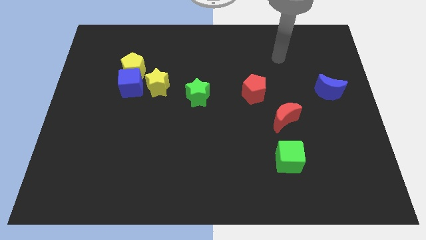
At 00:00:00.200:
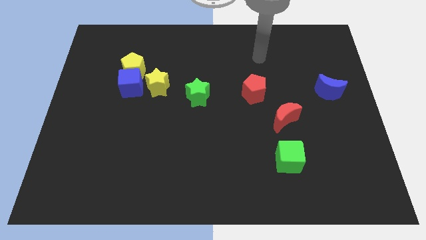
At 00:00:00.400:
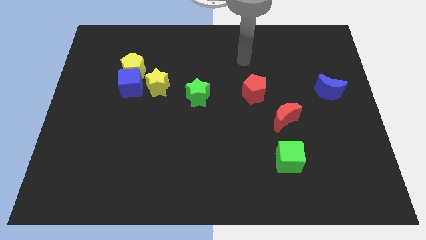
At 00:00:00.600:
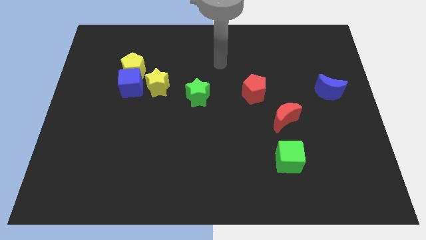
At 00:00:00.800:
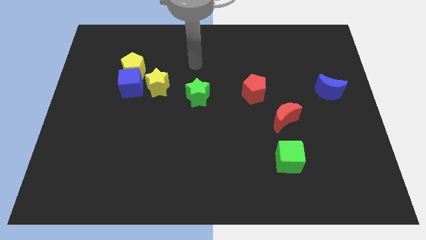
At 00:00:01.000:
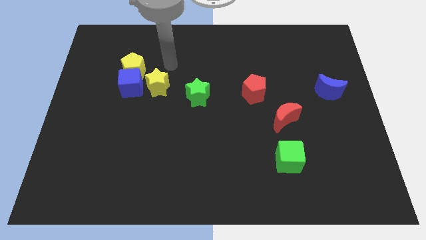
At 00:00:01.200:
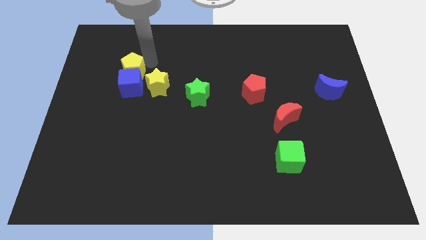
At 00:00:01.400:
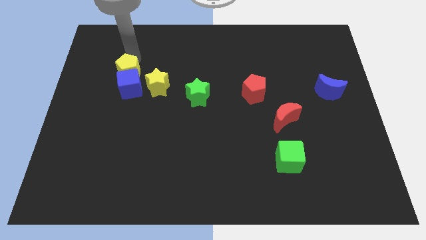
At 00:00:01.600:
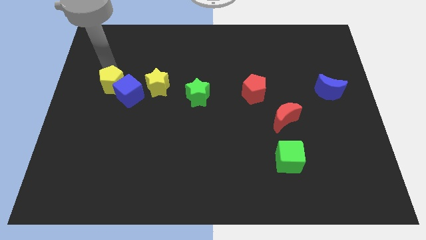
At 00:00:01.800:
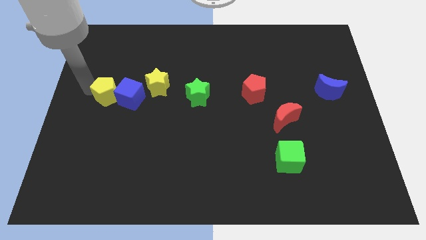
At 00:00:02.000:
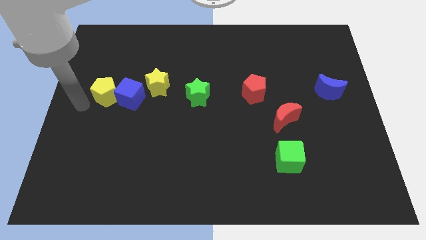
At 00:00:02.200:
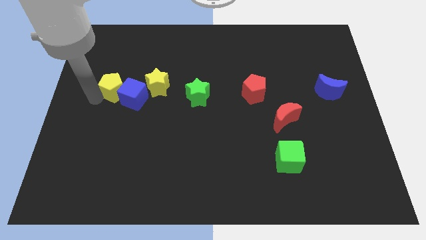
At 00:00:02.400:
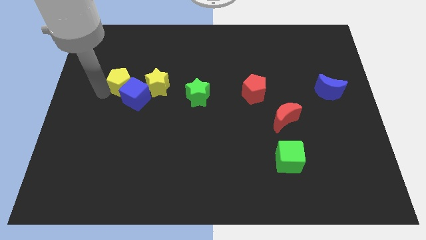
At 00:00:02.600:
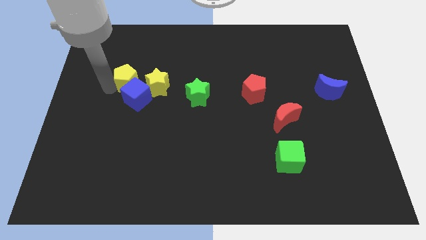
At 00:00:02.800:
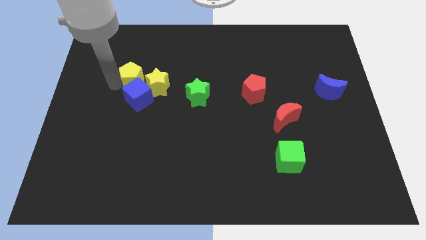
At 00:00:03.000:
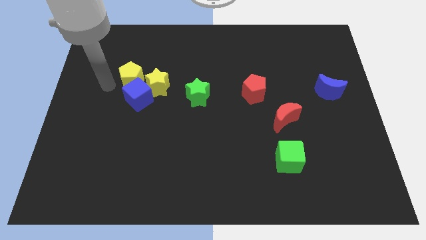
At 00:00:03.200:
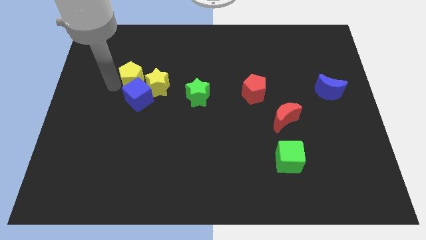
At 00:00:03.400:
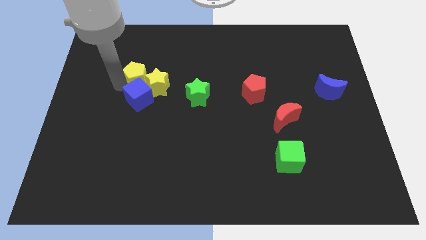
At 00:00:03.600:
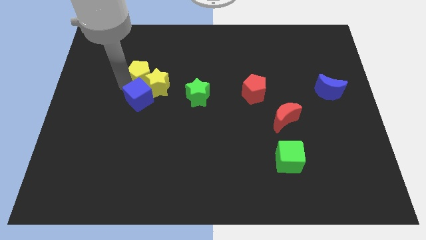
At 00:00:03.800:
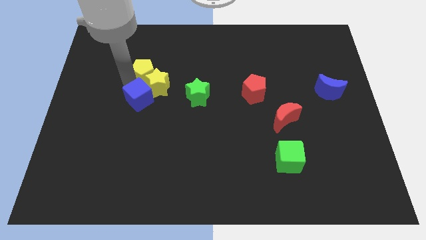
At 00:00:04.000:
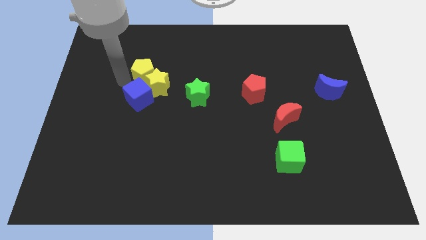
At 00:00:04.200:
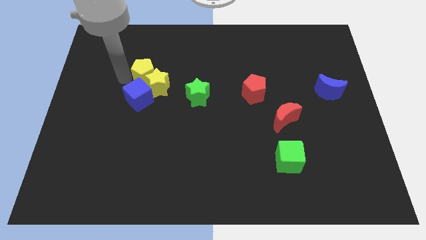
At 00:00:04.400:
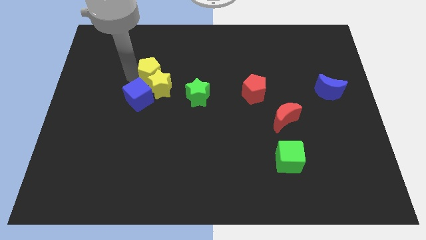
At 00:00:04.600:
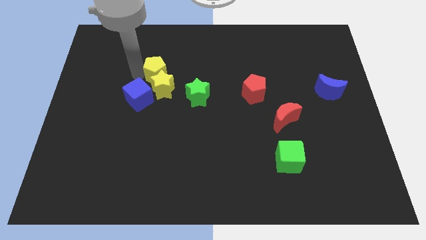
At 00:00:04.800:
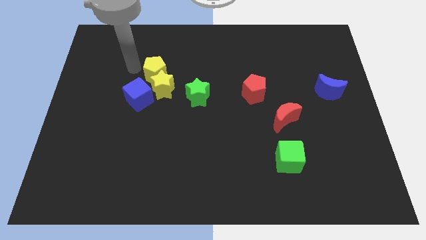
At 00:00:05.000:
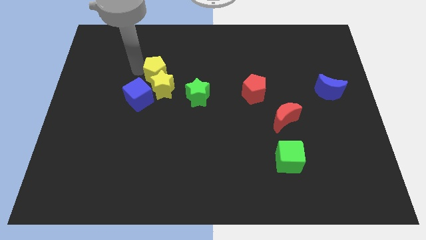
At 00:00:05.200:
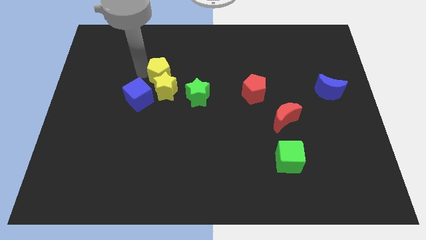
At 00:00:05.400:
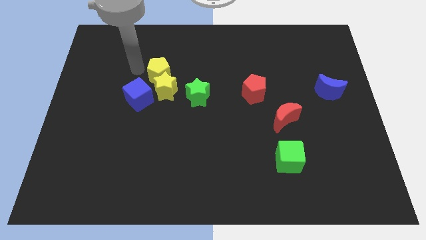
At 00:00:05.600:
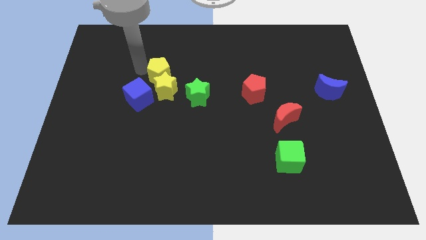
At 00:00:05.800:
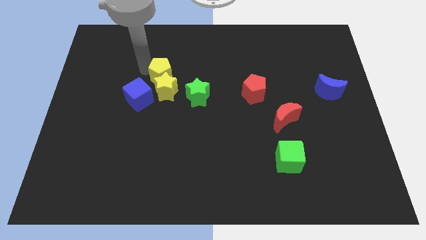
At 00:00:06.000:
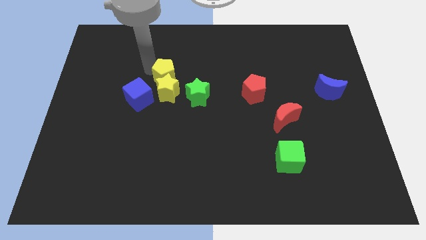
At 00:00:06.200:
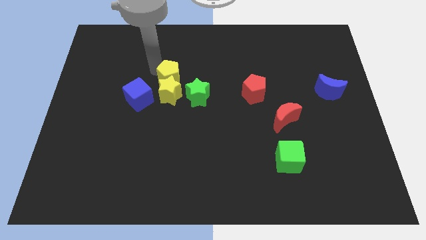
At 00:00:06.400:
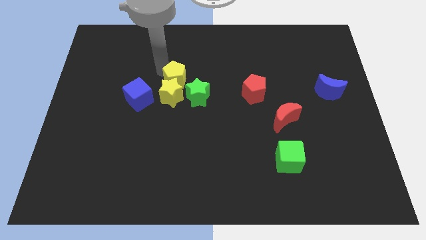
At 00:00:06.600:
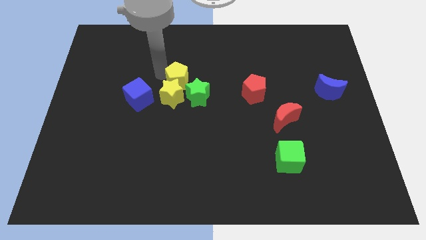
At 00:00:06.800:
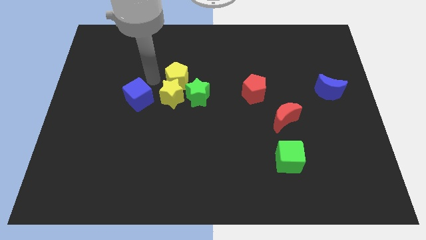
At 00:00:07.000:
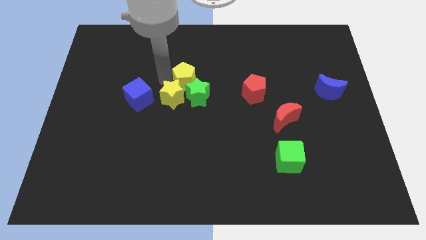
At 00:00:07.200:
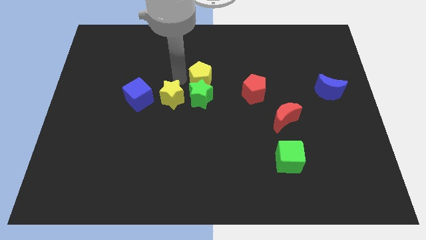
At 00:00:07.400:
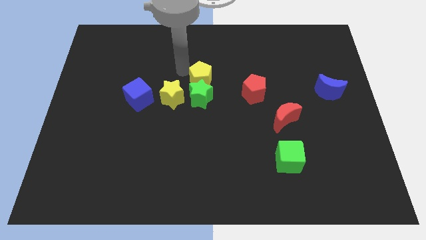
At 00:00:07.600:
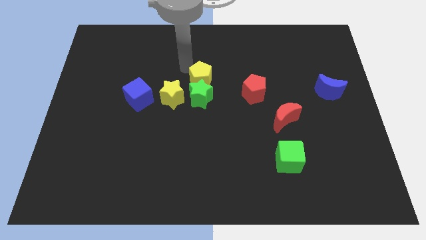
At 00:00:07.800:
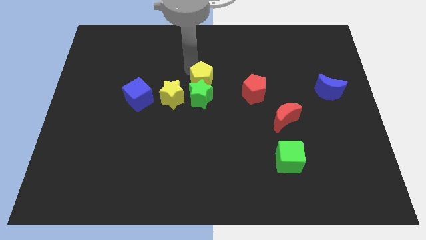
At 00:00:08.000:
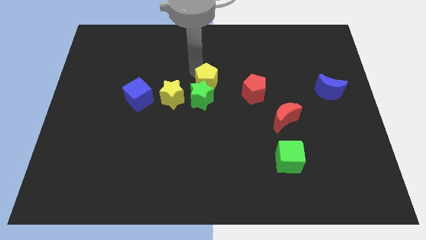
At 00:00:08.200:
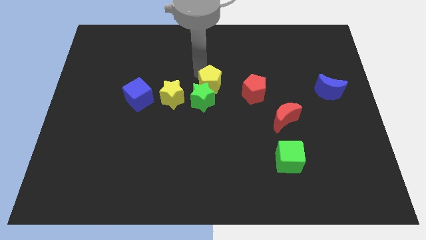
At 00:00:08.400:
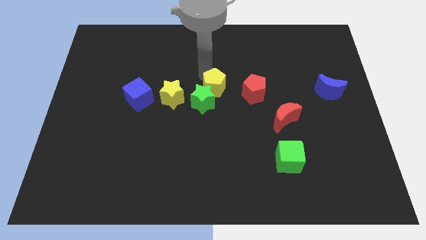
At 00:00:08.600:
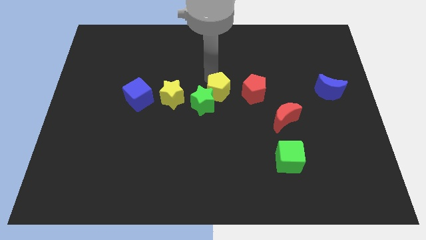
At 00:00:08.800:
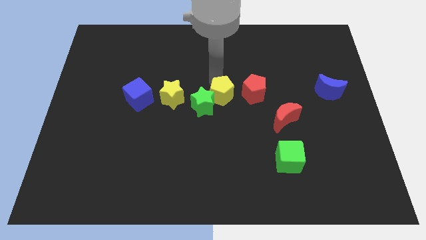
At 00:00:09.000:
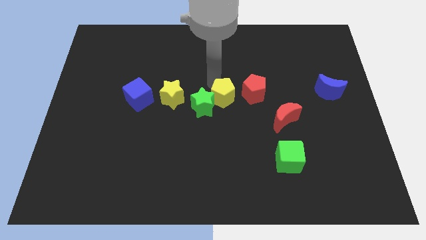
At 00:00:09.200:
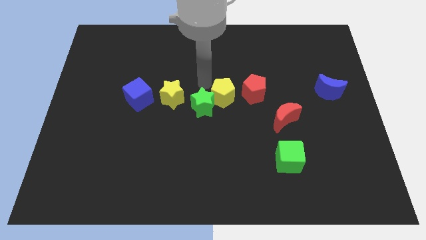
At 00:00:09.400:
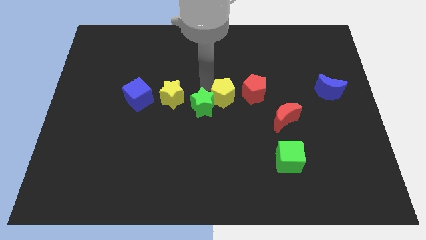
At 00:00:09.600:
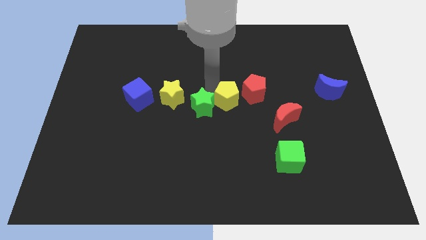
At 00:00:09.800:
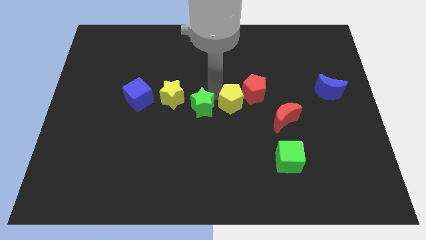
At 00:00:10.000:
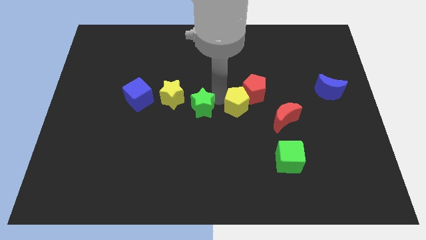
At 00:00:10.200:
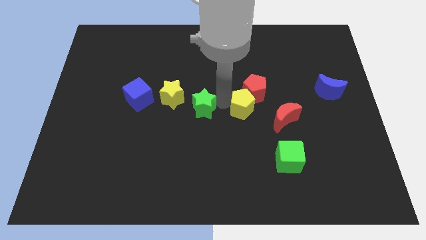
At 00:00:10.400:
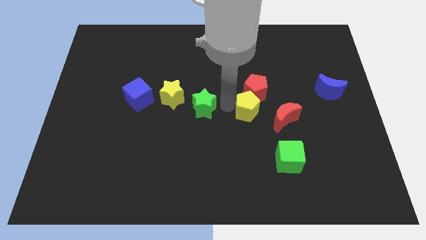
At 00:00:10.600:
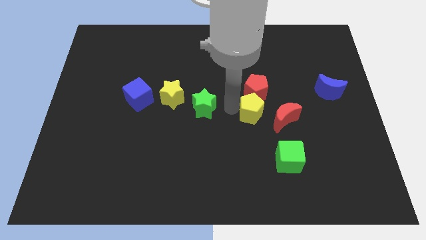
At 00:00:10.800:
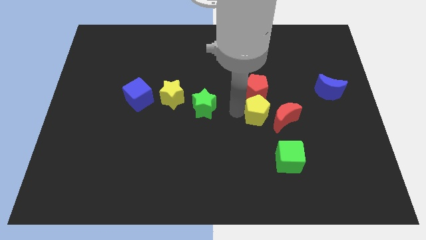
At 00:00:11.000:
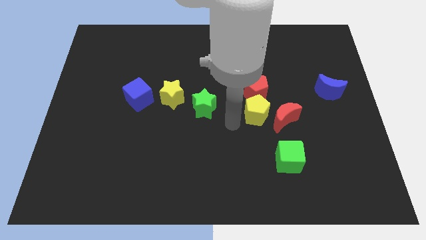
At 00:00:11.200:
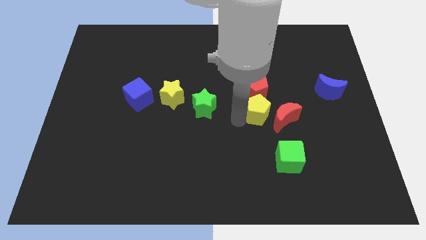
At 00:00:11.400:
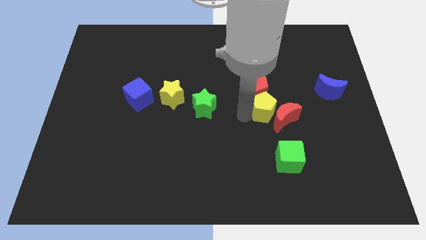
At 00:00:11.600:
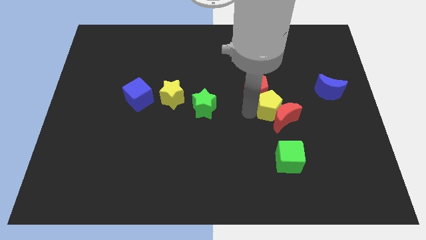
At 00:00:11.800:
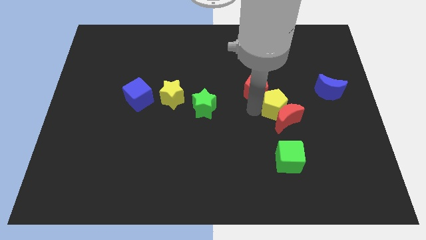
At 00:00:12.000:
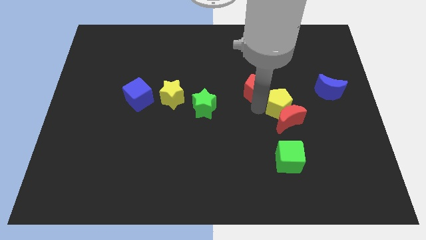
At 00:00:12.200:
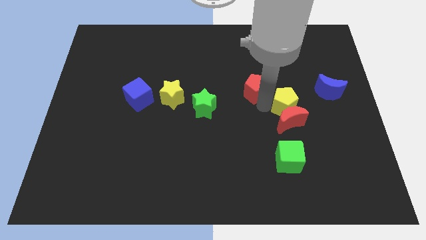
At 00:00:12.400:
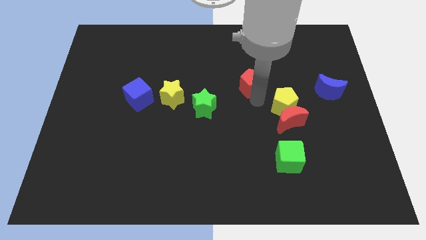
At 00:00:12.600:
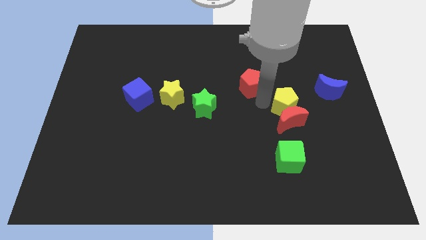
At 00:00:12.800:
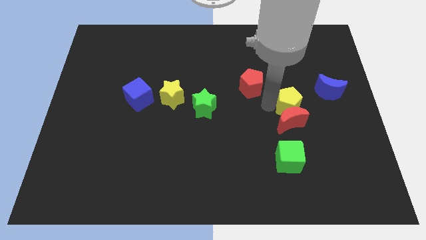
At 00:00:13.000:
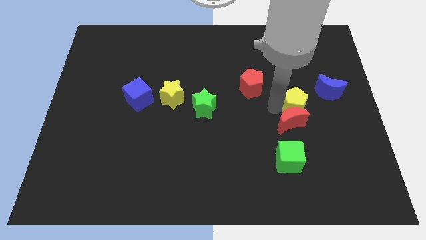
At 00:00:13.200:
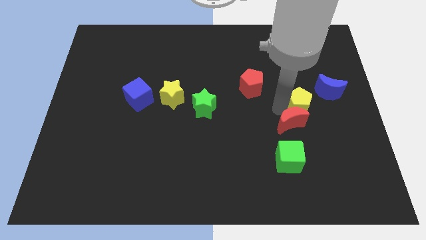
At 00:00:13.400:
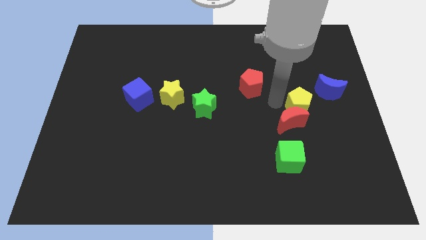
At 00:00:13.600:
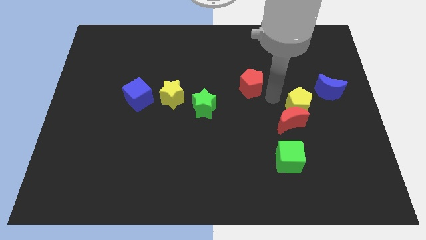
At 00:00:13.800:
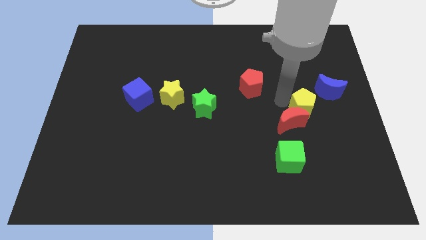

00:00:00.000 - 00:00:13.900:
slide the yellow pentagon just right of the red moon
